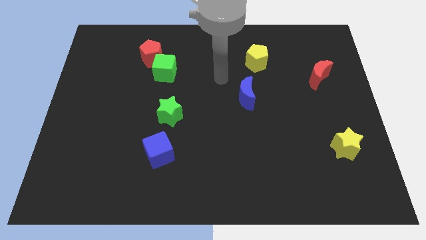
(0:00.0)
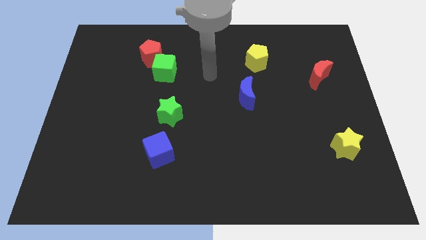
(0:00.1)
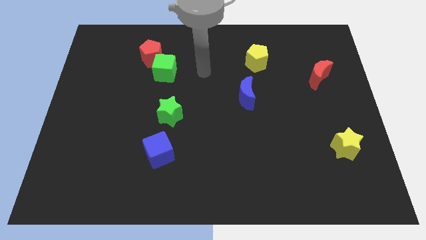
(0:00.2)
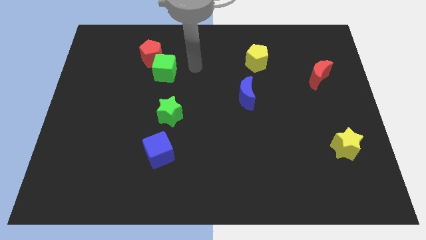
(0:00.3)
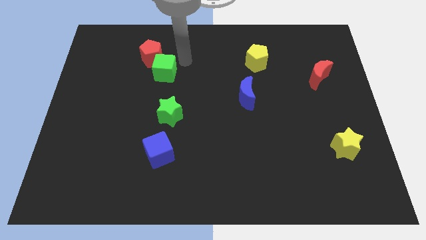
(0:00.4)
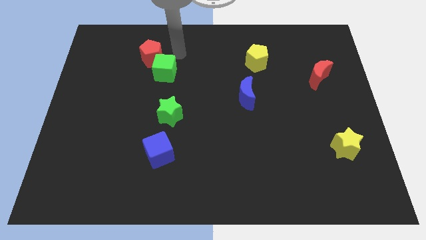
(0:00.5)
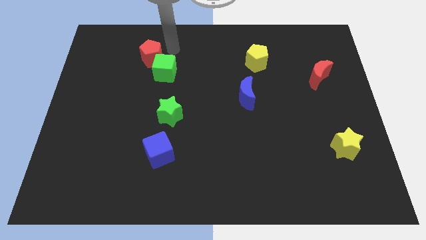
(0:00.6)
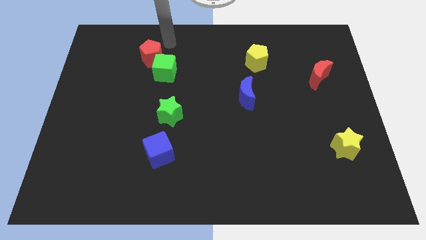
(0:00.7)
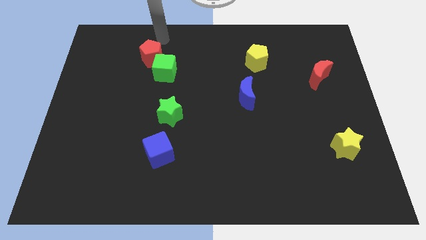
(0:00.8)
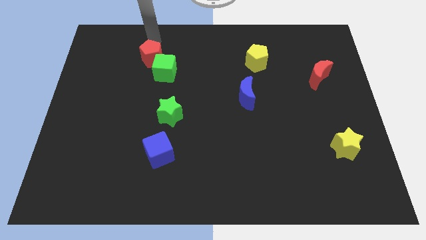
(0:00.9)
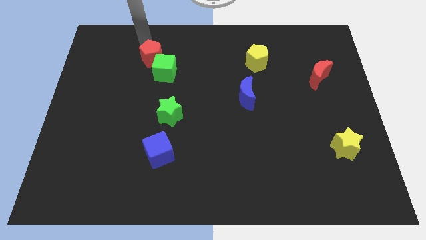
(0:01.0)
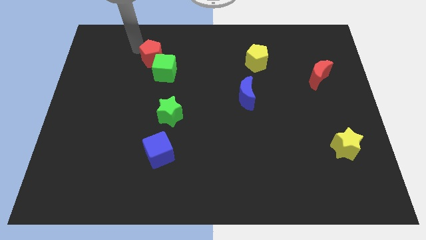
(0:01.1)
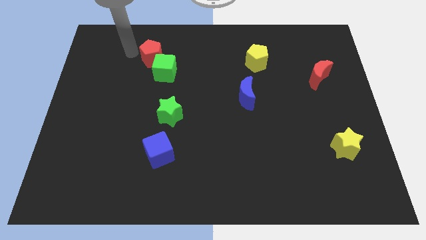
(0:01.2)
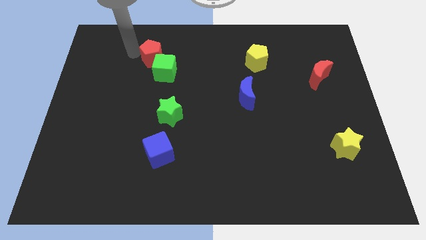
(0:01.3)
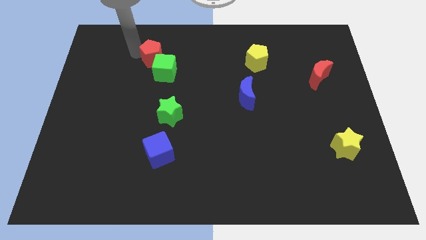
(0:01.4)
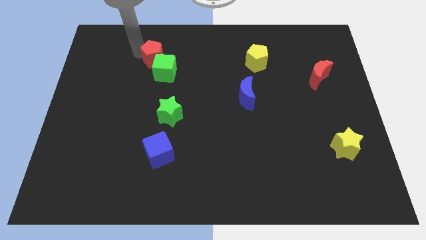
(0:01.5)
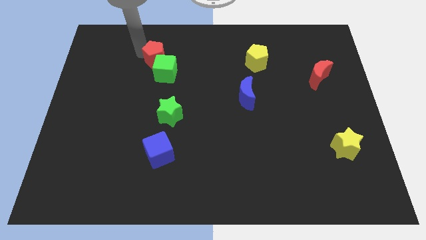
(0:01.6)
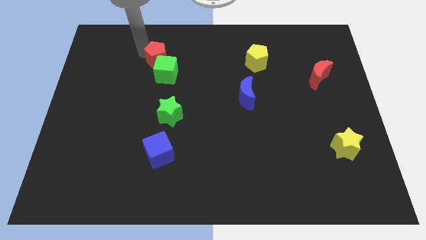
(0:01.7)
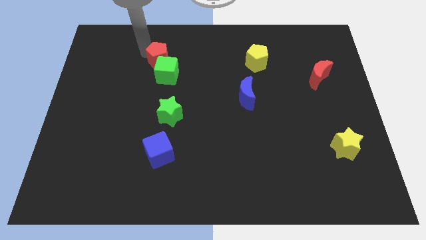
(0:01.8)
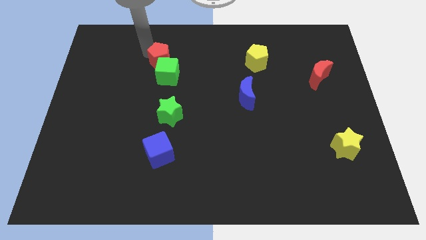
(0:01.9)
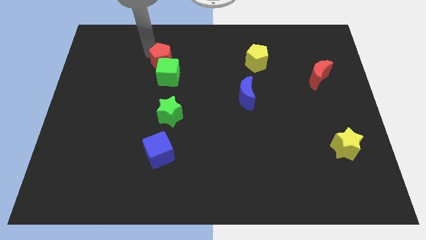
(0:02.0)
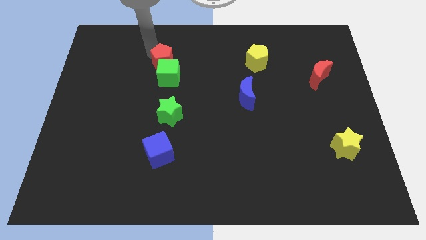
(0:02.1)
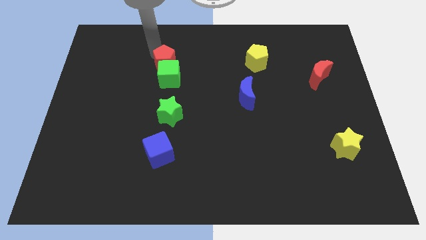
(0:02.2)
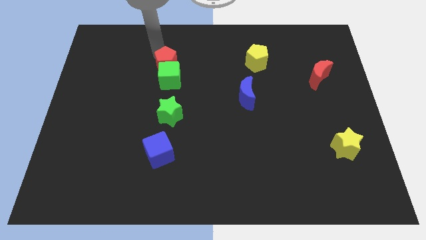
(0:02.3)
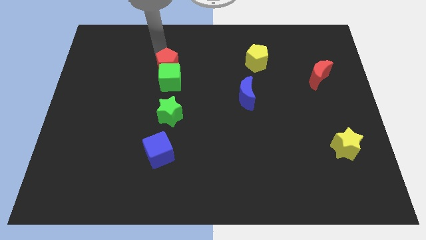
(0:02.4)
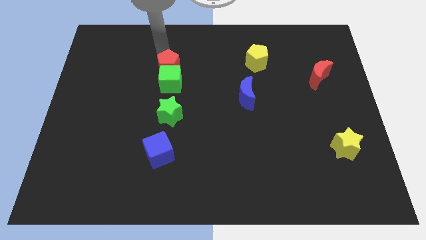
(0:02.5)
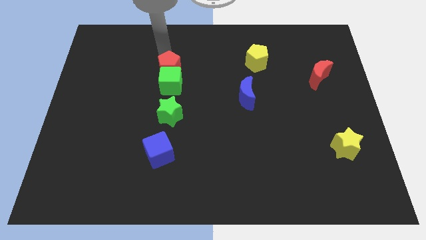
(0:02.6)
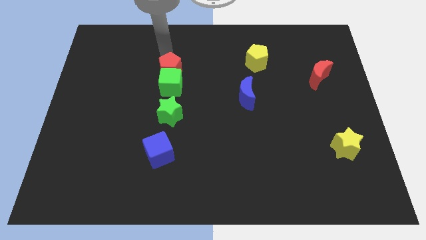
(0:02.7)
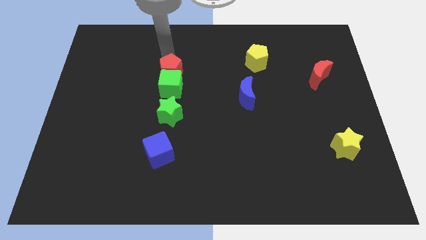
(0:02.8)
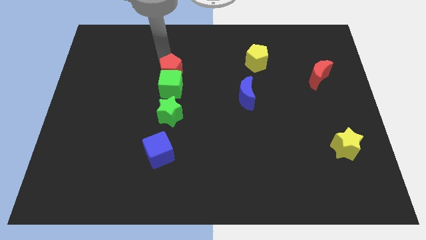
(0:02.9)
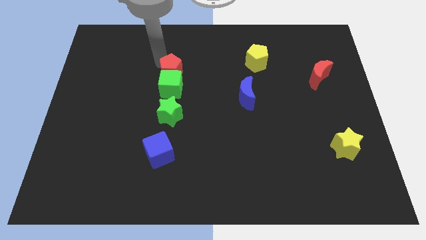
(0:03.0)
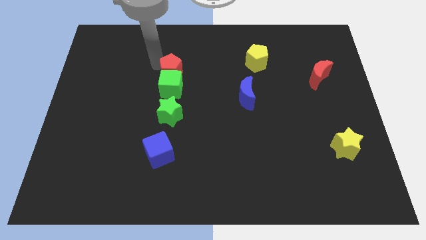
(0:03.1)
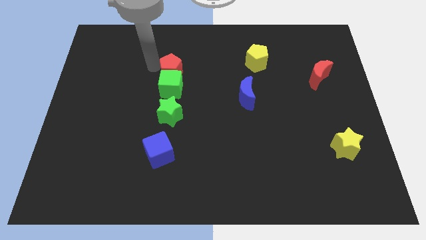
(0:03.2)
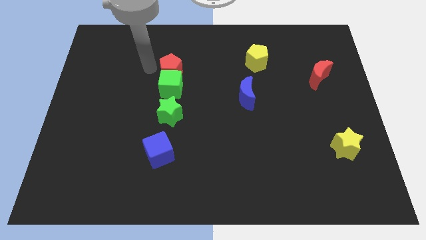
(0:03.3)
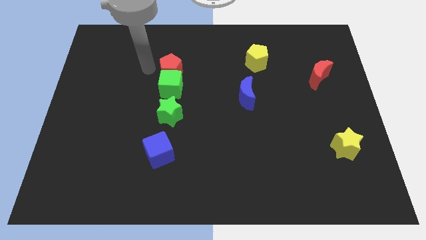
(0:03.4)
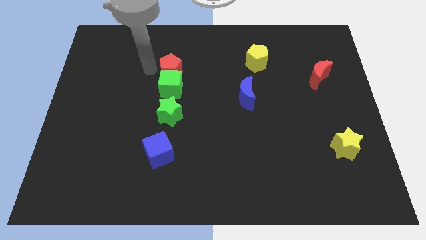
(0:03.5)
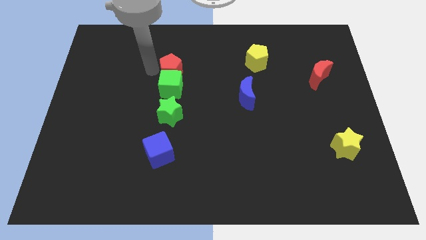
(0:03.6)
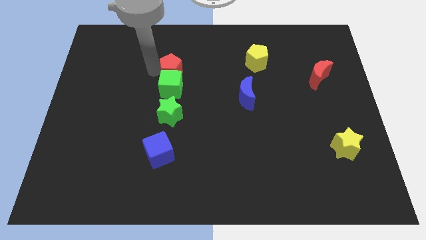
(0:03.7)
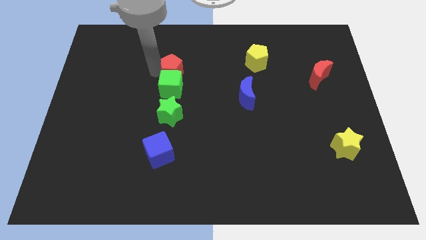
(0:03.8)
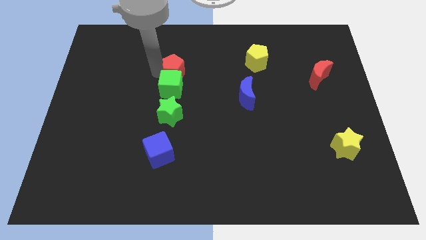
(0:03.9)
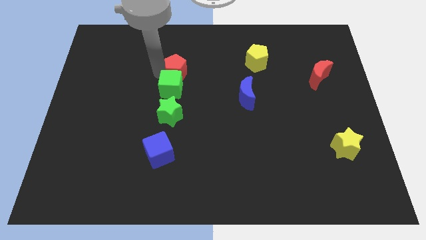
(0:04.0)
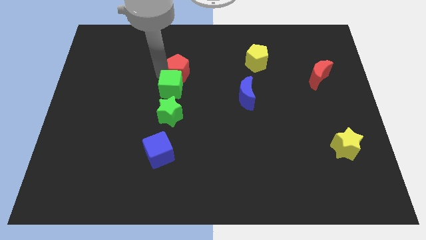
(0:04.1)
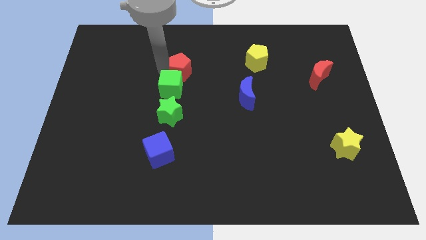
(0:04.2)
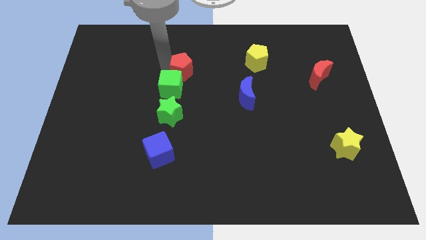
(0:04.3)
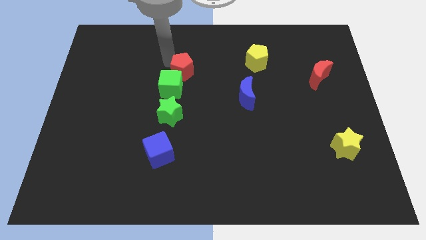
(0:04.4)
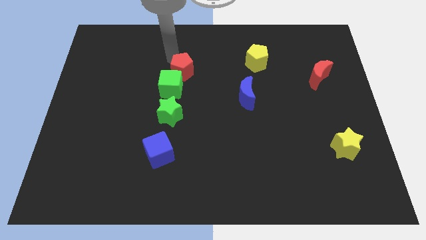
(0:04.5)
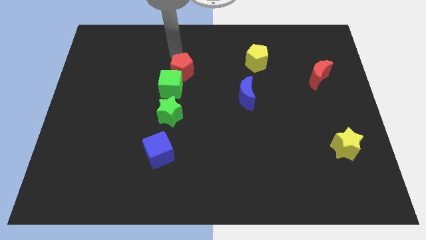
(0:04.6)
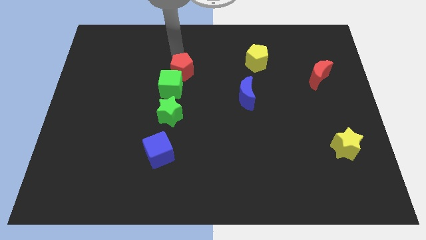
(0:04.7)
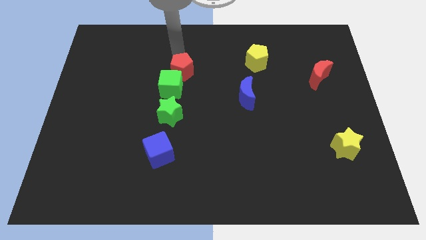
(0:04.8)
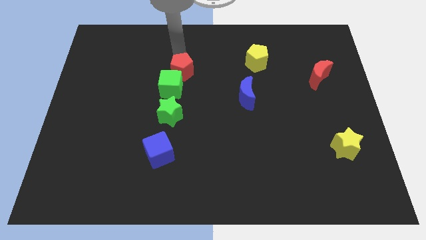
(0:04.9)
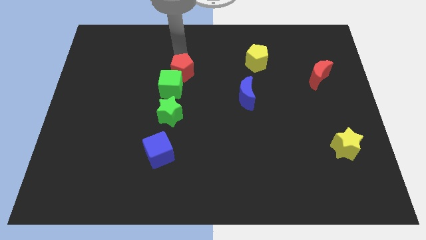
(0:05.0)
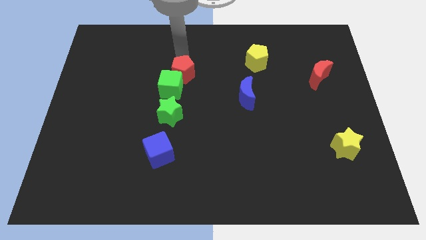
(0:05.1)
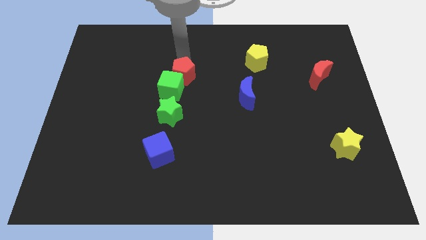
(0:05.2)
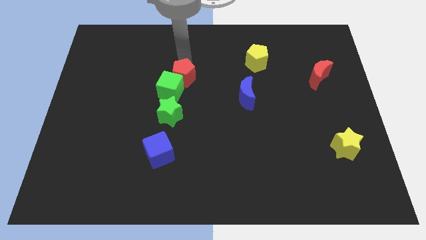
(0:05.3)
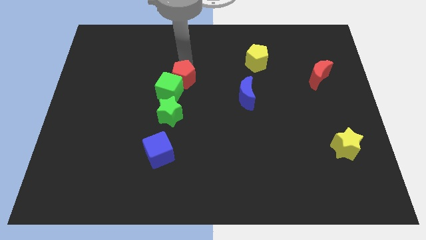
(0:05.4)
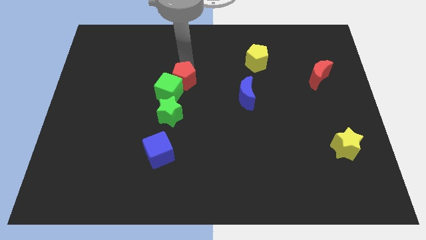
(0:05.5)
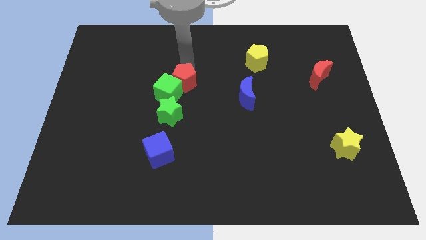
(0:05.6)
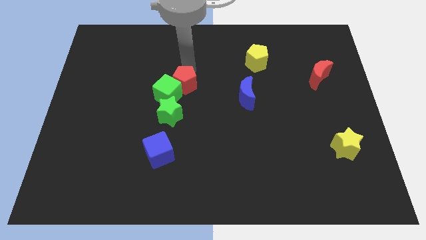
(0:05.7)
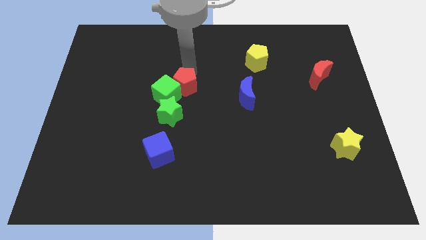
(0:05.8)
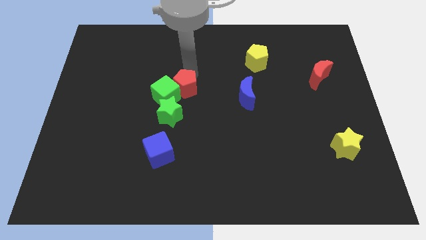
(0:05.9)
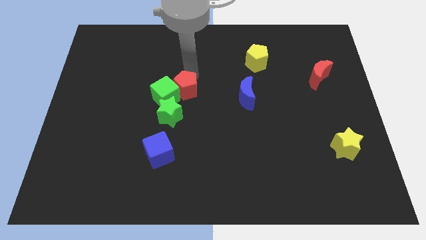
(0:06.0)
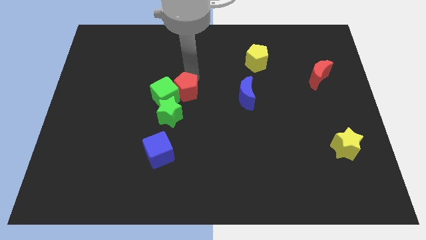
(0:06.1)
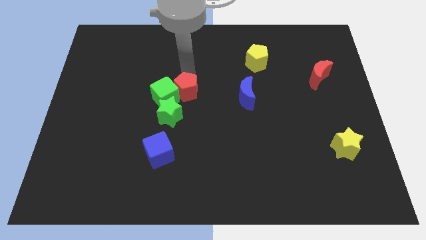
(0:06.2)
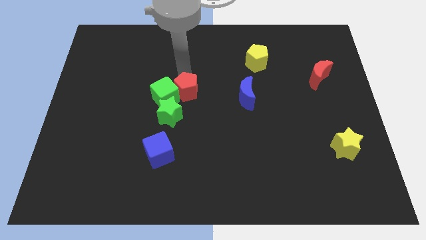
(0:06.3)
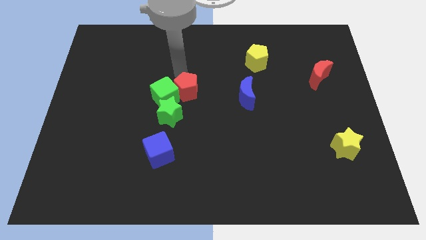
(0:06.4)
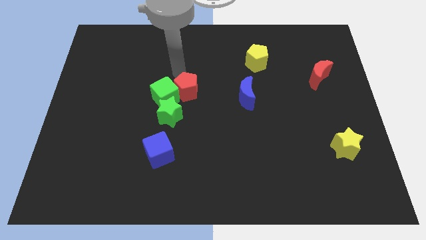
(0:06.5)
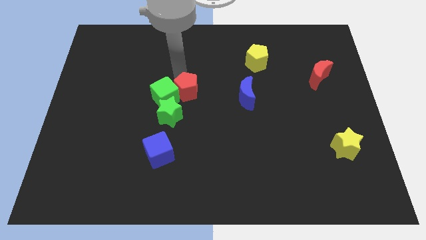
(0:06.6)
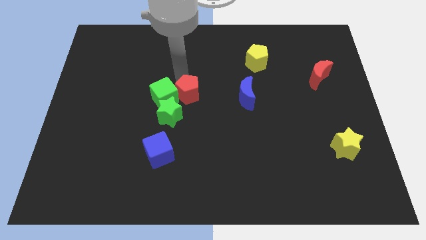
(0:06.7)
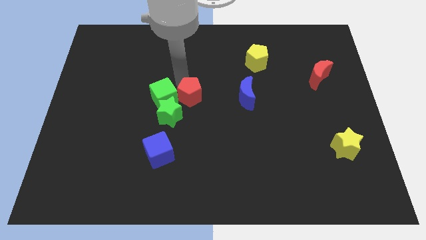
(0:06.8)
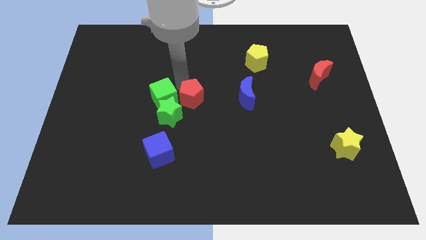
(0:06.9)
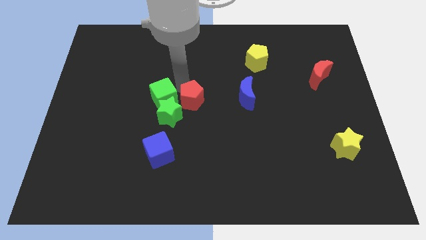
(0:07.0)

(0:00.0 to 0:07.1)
push the red pentagon to the right side of the green star
